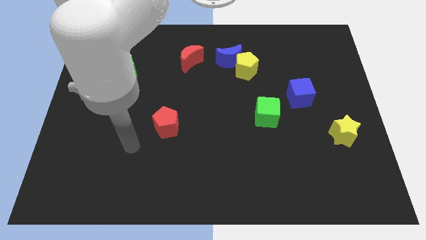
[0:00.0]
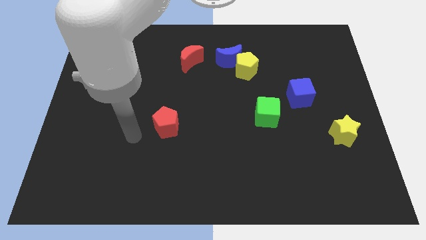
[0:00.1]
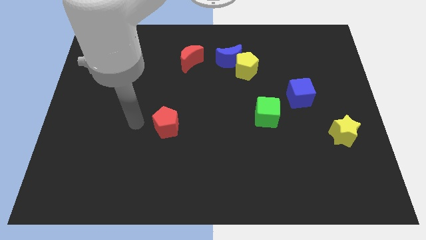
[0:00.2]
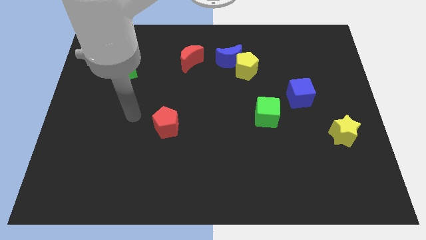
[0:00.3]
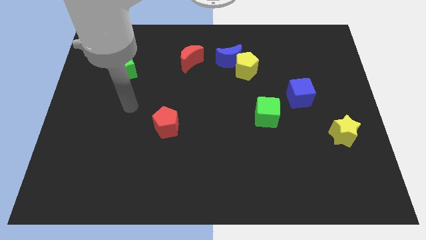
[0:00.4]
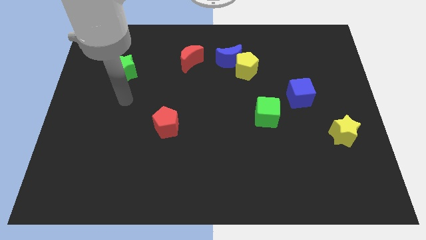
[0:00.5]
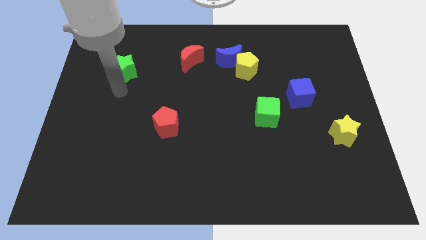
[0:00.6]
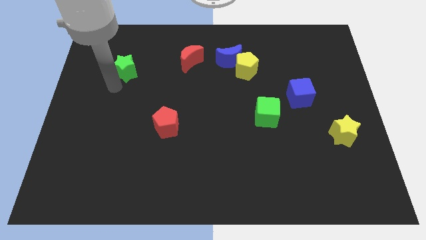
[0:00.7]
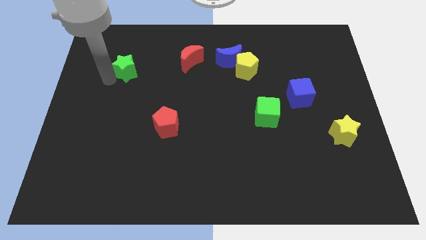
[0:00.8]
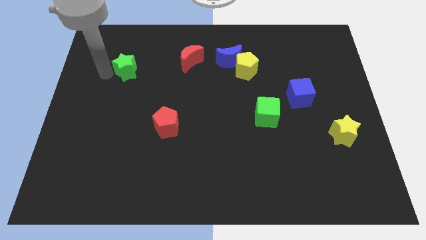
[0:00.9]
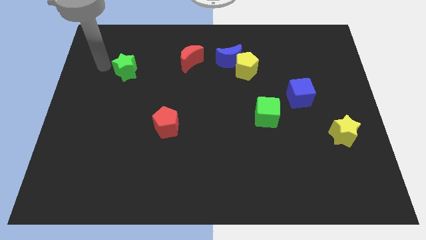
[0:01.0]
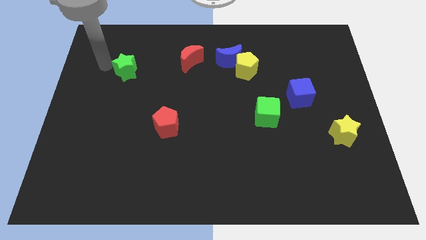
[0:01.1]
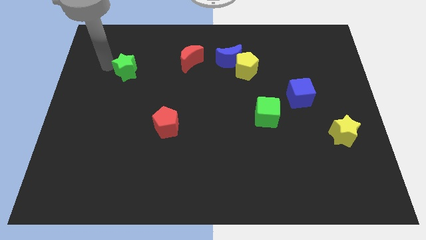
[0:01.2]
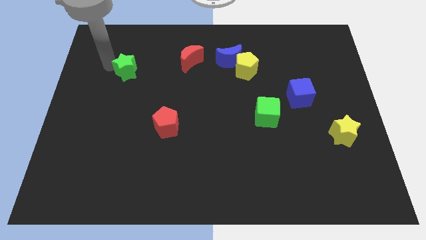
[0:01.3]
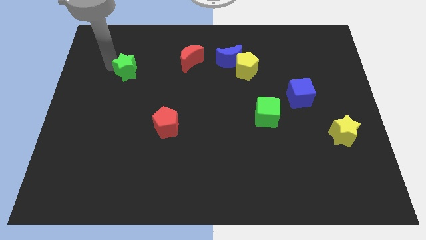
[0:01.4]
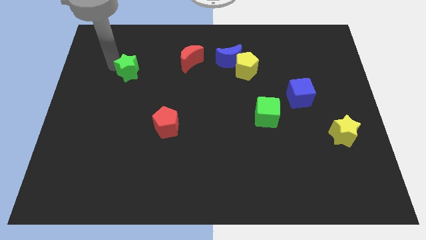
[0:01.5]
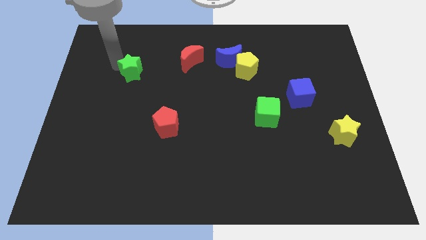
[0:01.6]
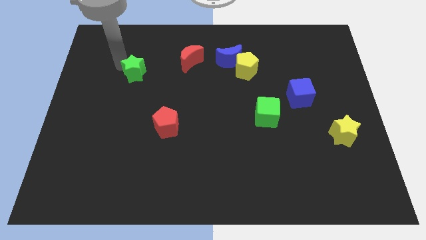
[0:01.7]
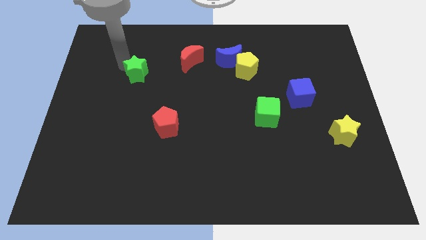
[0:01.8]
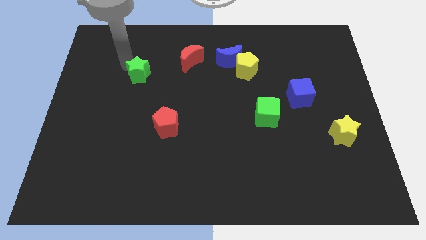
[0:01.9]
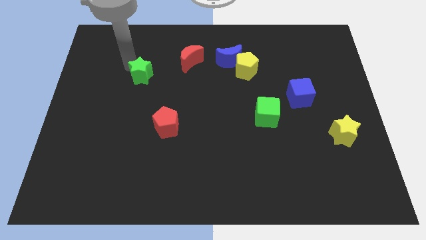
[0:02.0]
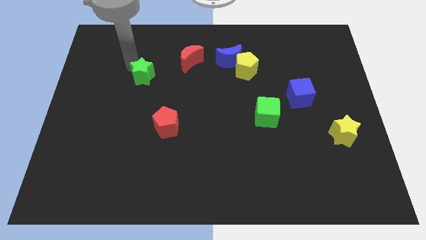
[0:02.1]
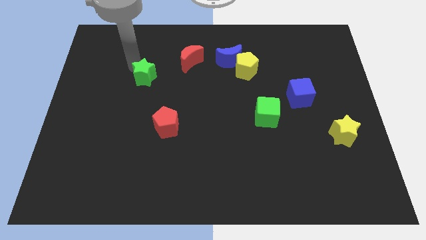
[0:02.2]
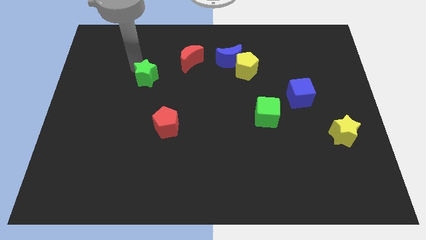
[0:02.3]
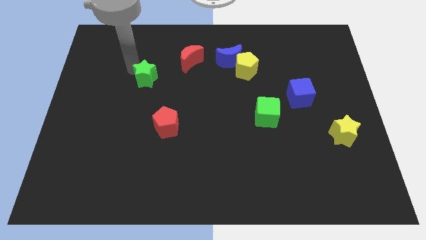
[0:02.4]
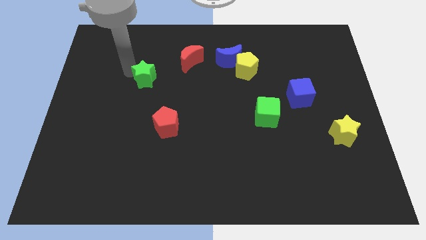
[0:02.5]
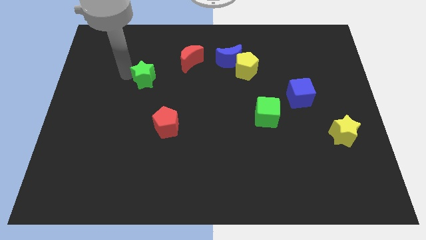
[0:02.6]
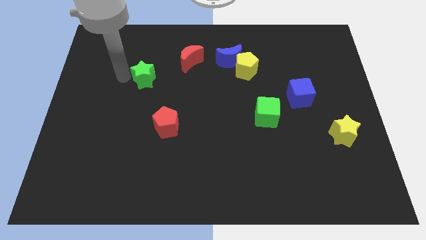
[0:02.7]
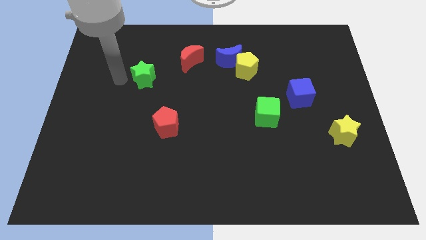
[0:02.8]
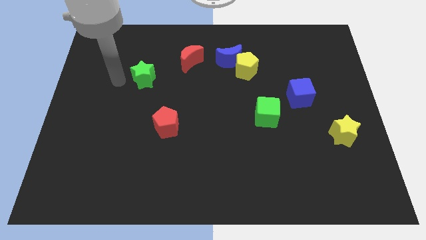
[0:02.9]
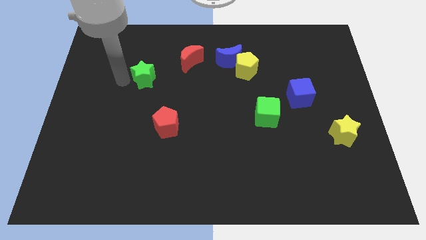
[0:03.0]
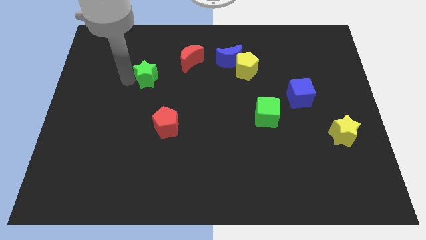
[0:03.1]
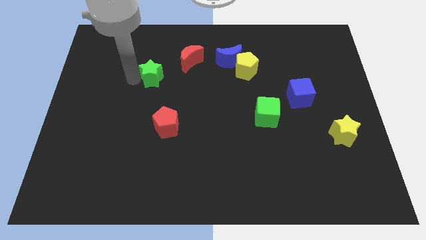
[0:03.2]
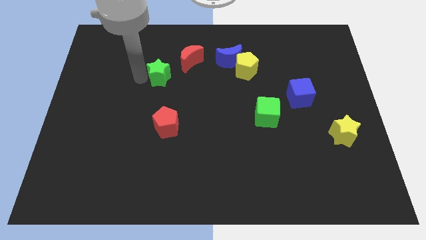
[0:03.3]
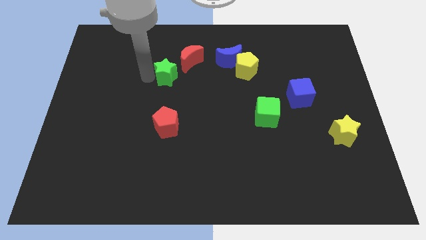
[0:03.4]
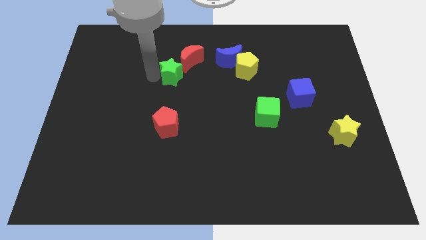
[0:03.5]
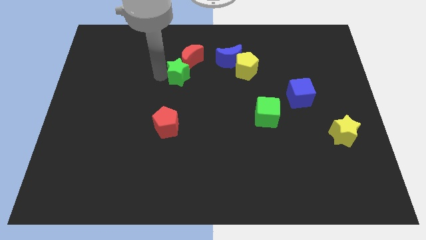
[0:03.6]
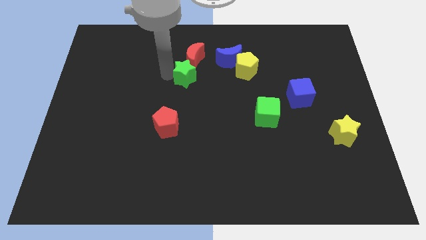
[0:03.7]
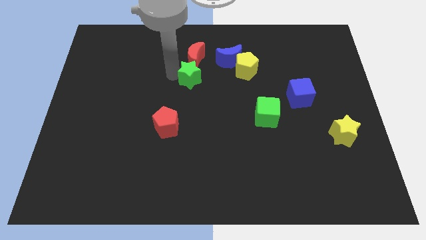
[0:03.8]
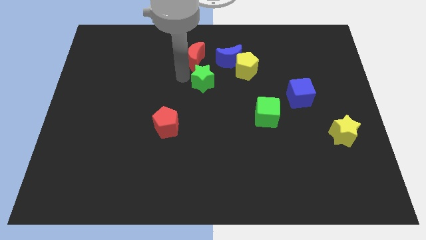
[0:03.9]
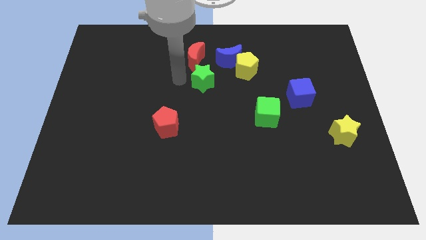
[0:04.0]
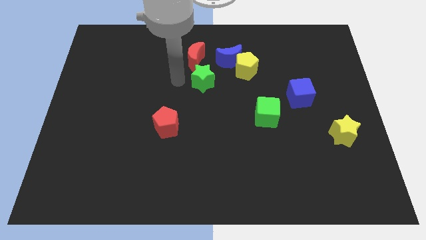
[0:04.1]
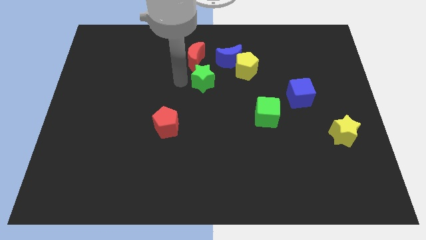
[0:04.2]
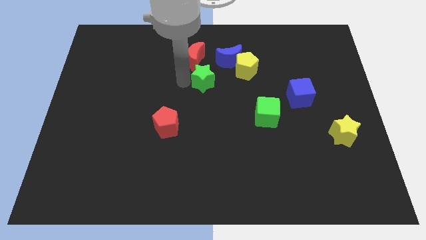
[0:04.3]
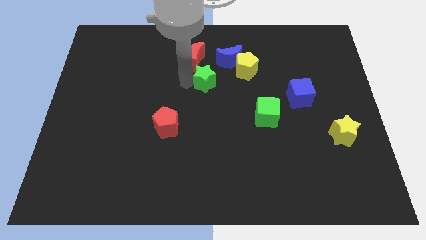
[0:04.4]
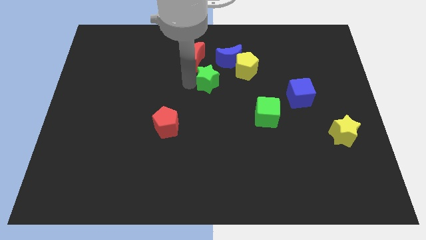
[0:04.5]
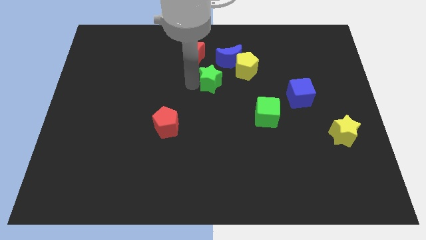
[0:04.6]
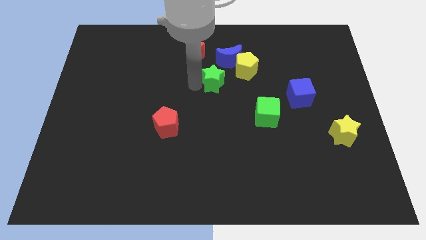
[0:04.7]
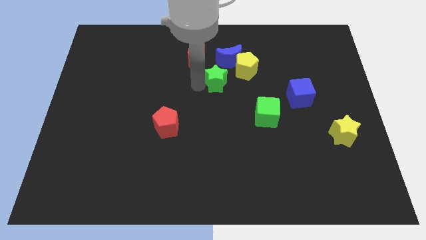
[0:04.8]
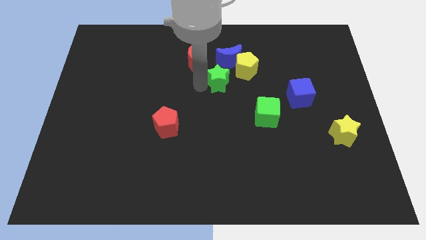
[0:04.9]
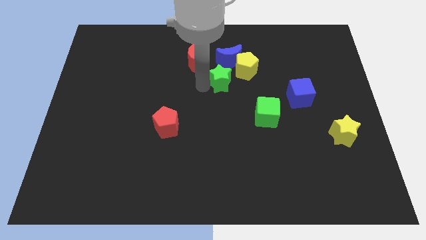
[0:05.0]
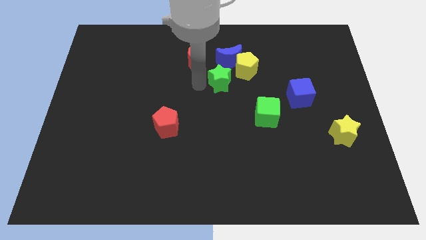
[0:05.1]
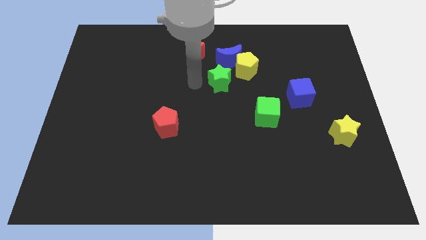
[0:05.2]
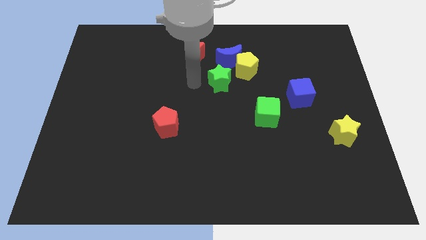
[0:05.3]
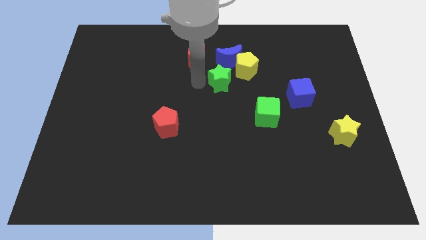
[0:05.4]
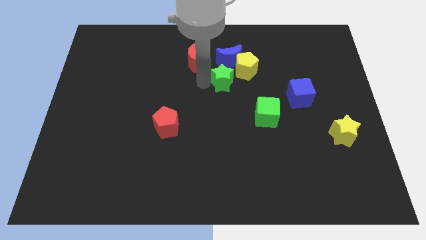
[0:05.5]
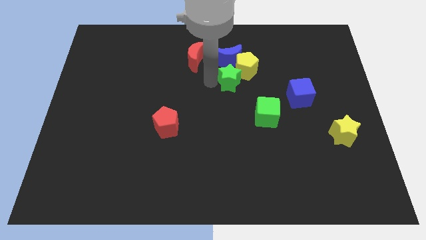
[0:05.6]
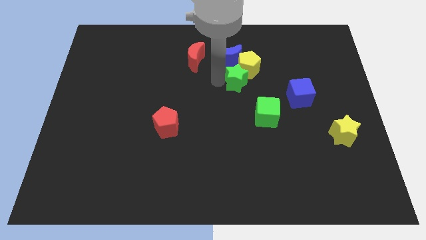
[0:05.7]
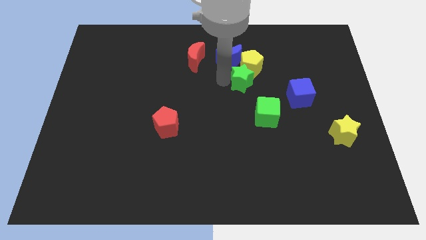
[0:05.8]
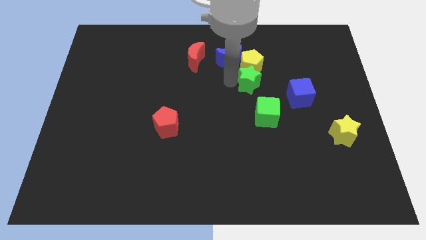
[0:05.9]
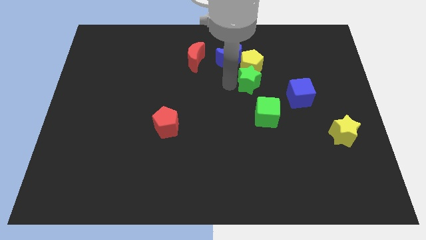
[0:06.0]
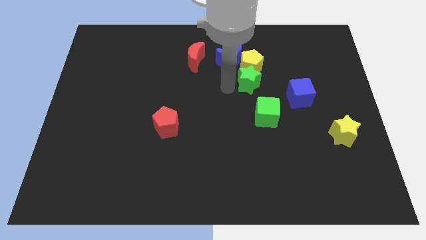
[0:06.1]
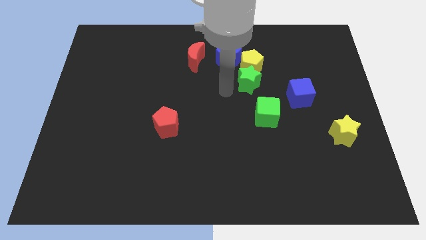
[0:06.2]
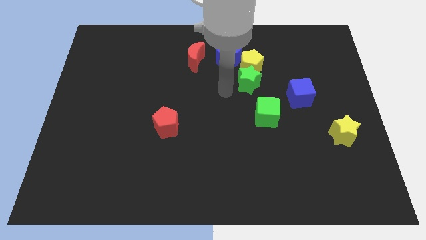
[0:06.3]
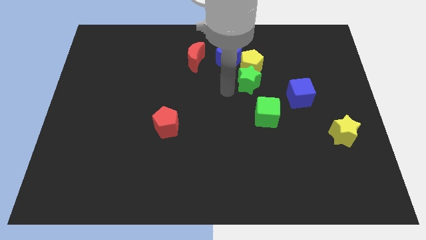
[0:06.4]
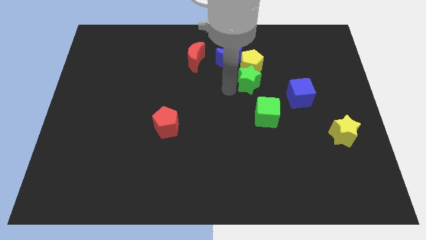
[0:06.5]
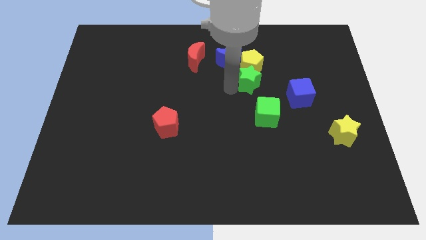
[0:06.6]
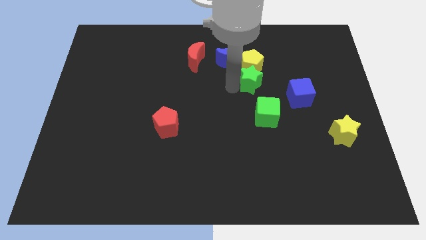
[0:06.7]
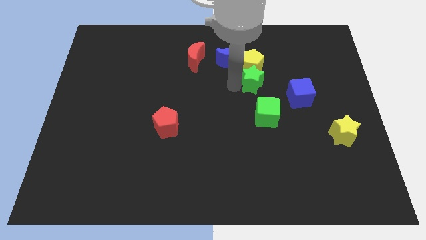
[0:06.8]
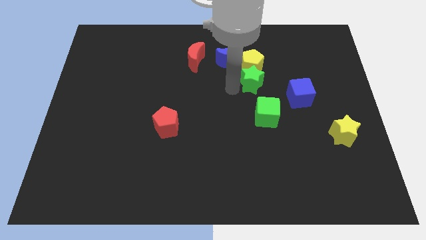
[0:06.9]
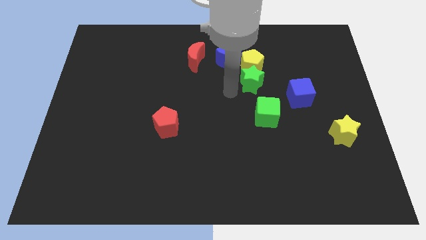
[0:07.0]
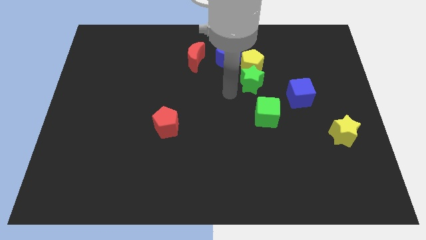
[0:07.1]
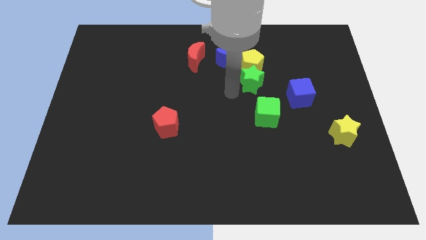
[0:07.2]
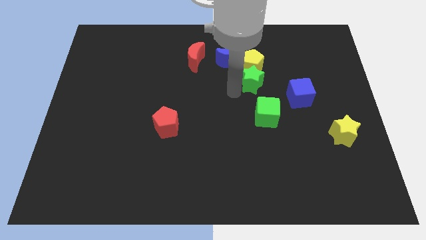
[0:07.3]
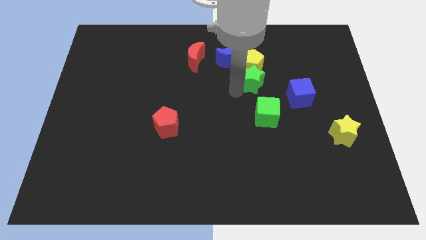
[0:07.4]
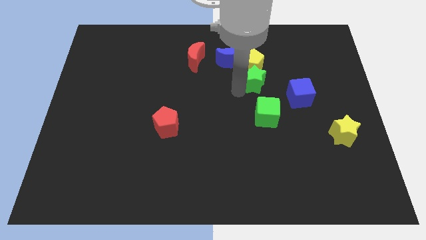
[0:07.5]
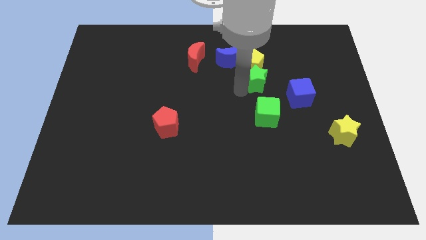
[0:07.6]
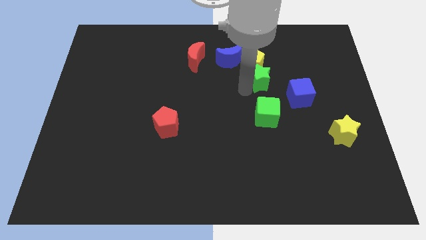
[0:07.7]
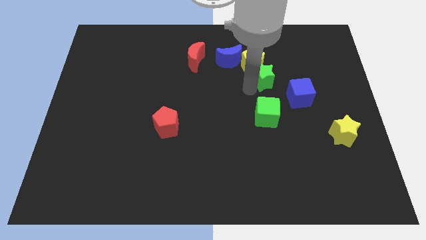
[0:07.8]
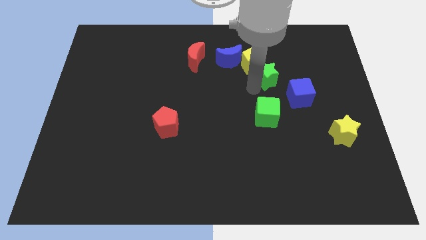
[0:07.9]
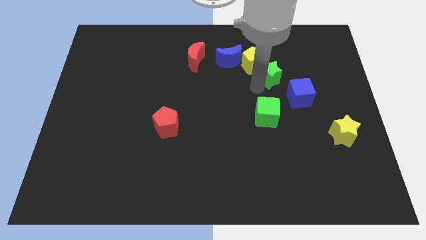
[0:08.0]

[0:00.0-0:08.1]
move the green star right of the yellow pentagon
